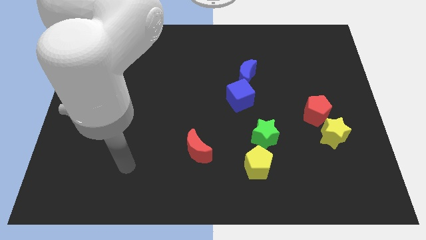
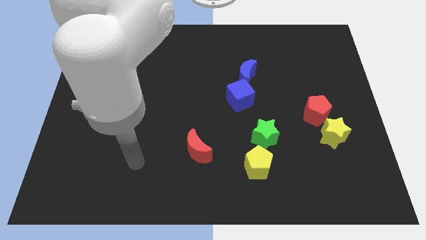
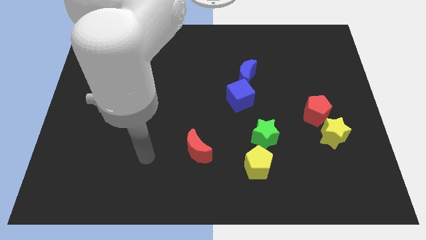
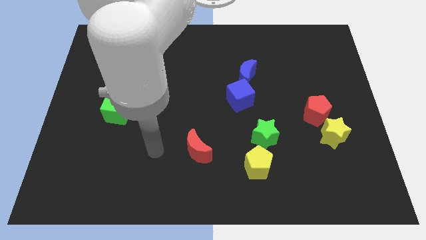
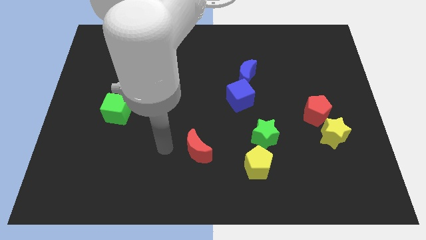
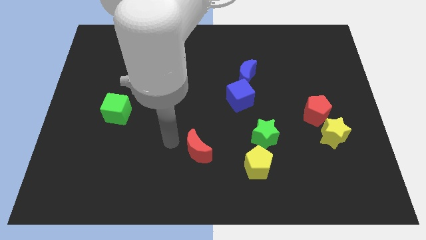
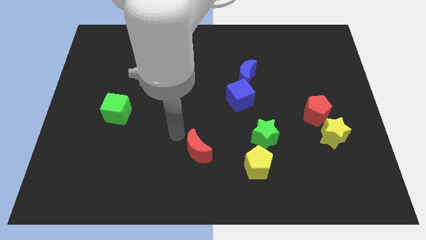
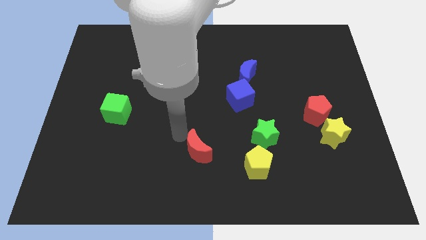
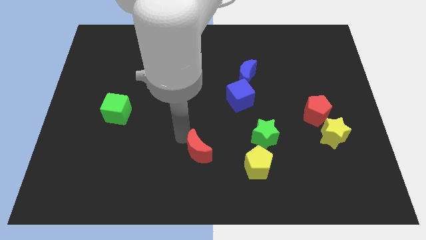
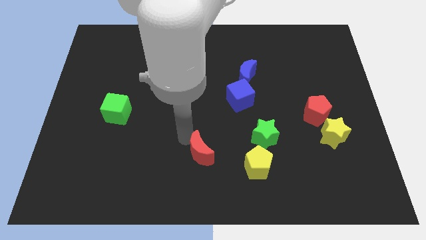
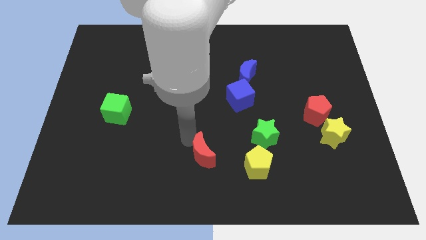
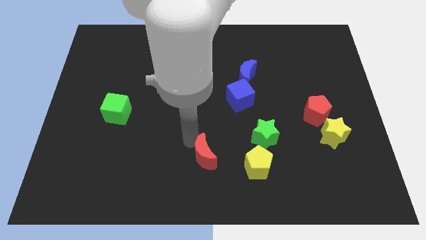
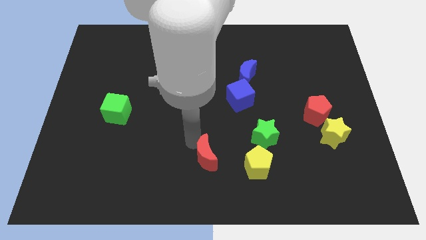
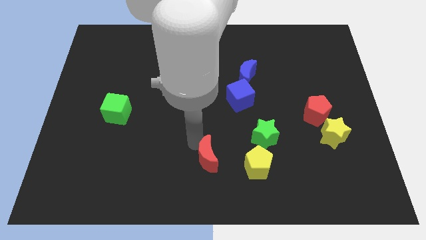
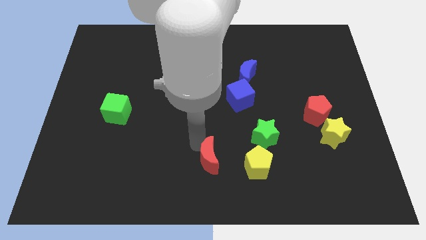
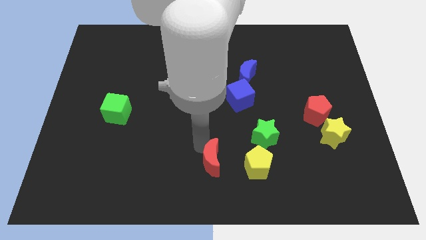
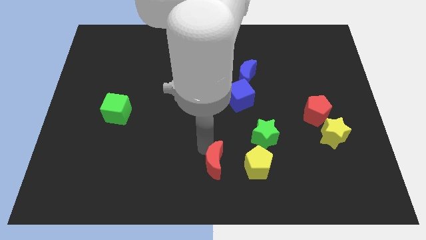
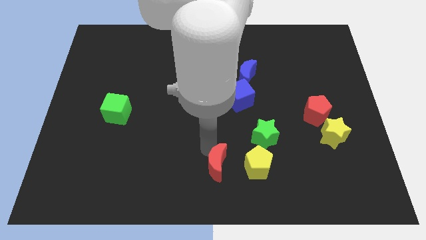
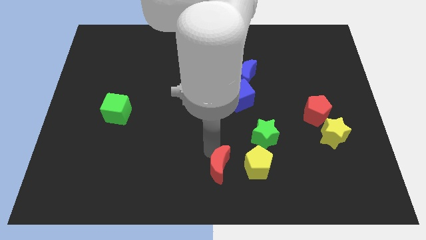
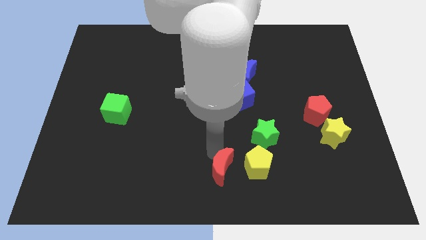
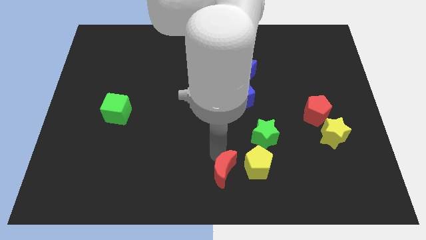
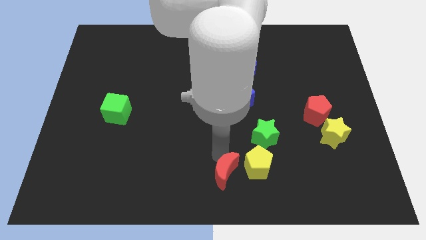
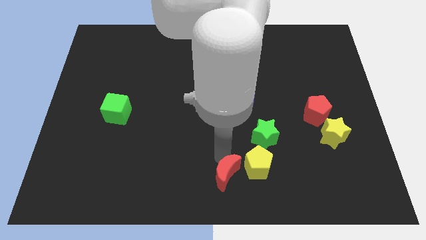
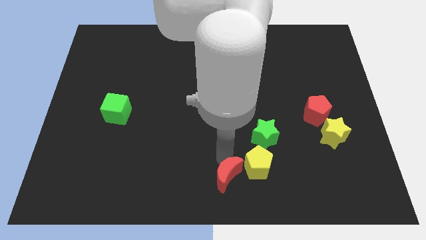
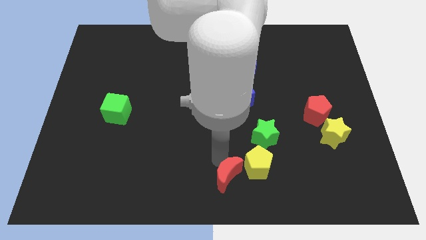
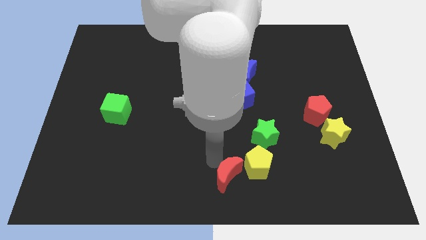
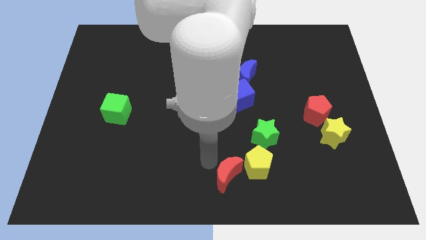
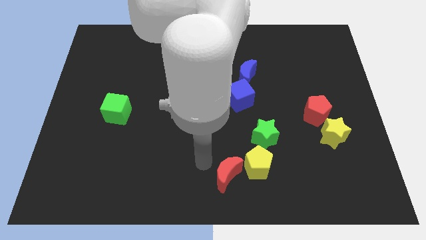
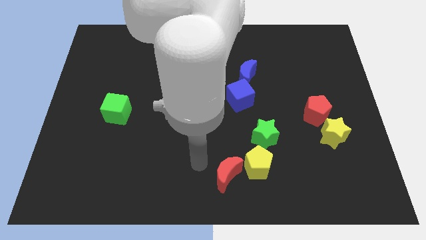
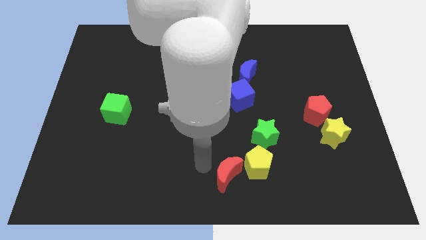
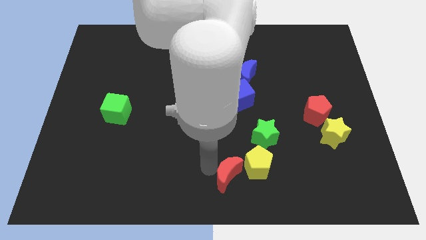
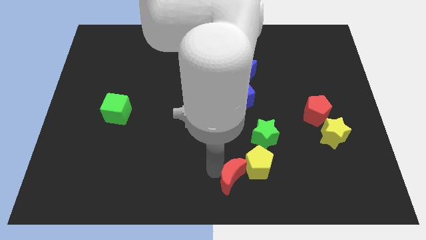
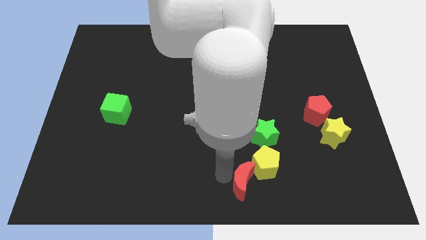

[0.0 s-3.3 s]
slightly move the red moon right

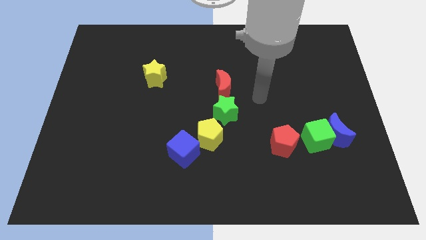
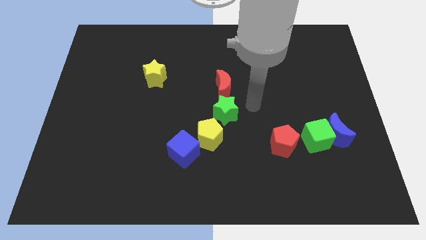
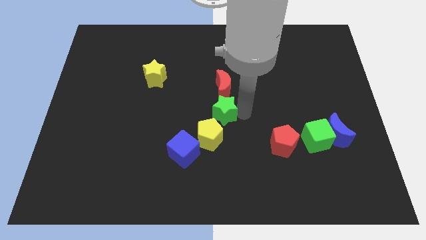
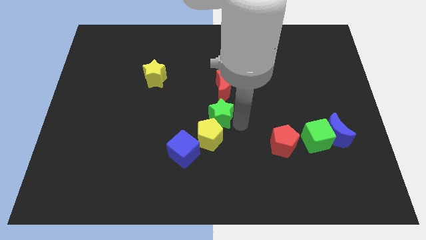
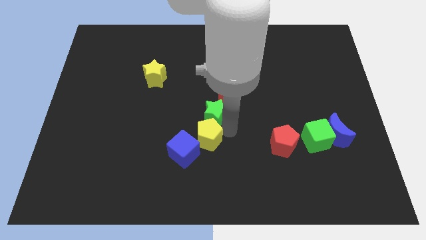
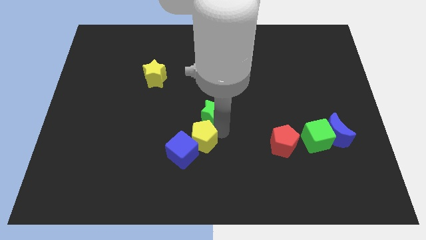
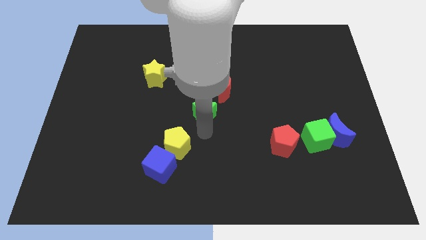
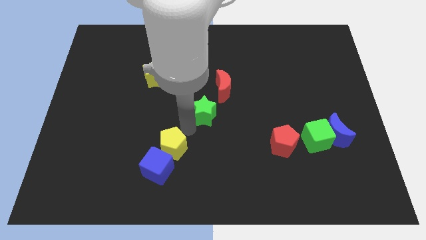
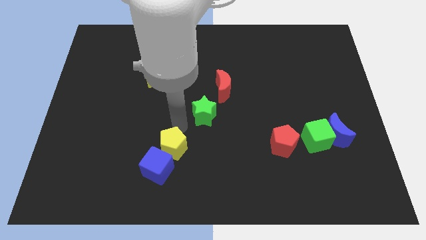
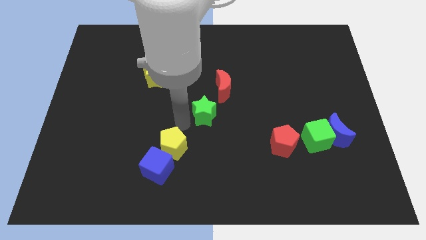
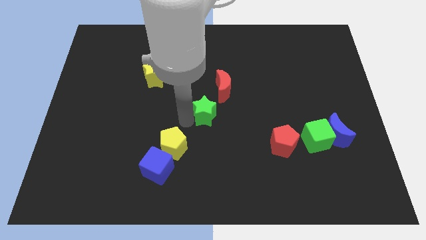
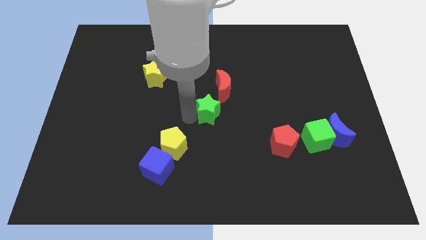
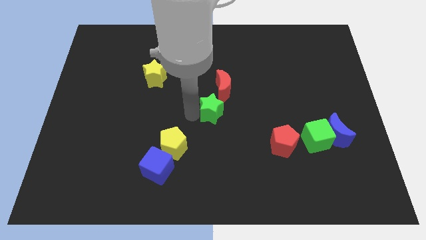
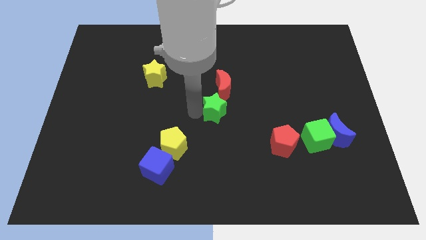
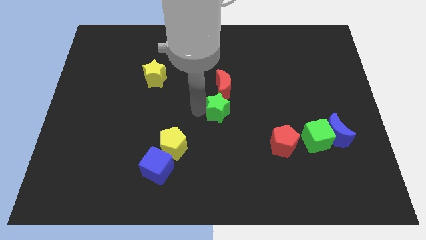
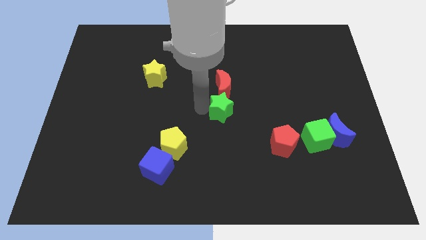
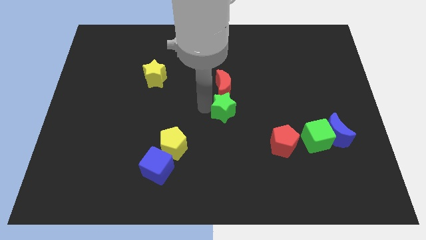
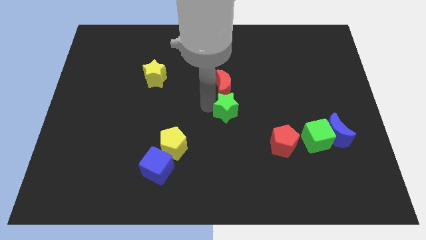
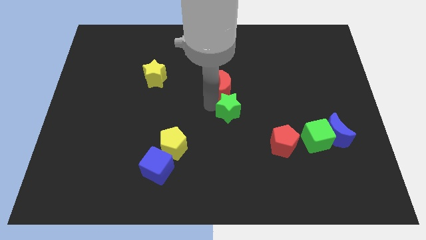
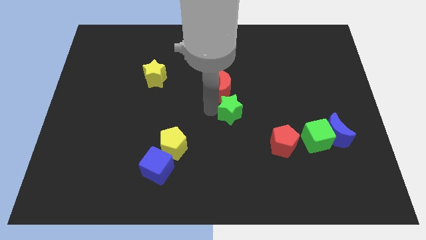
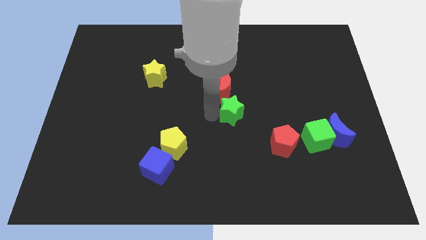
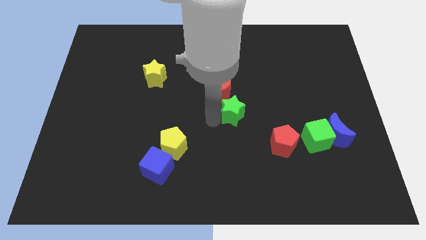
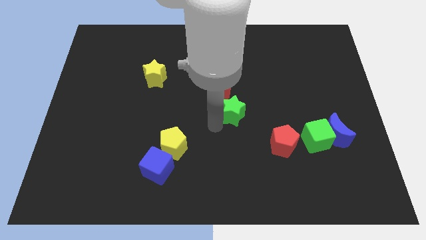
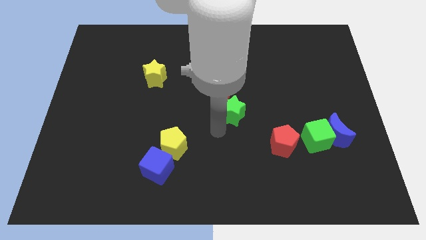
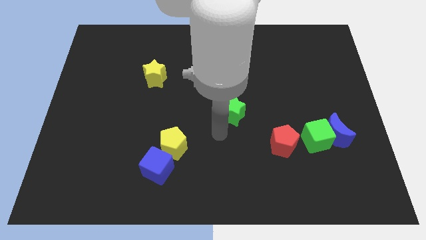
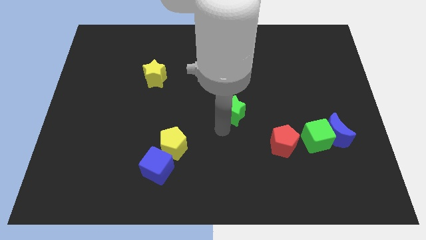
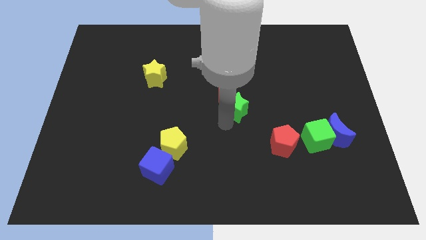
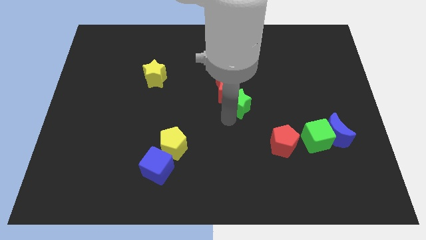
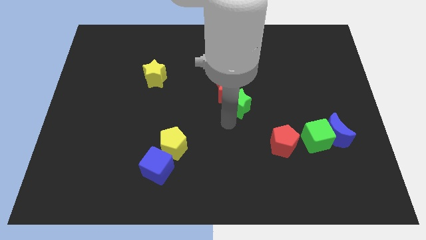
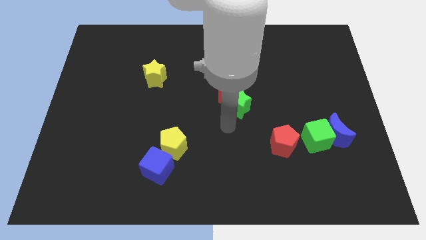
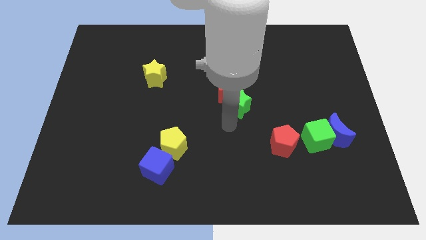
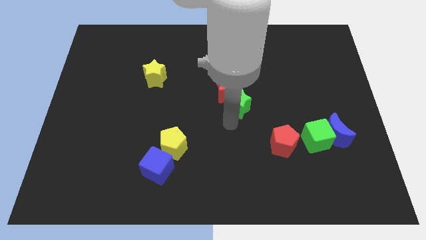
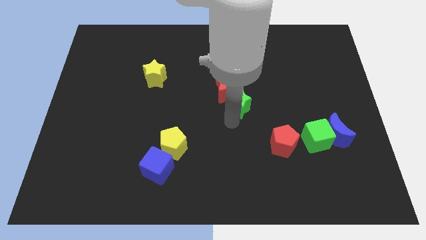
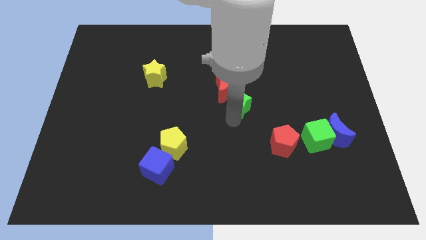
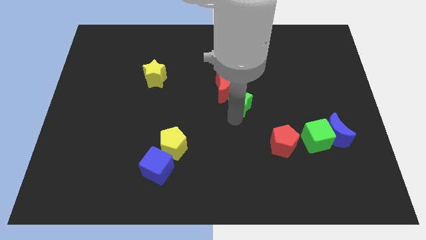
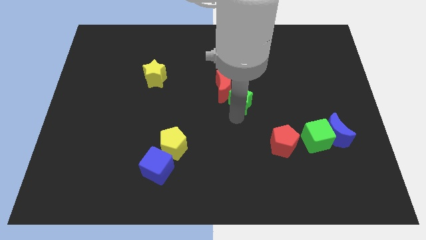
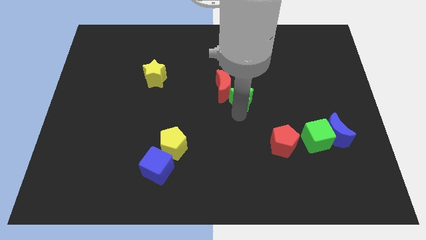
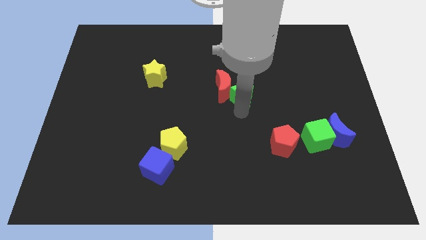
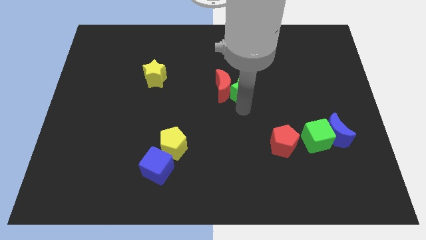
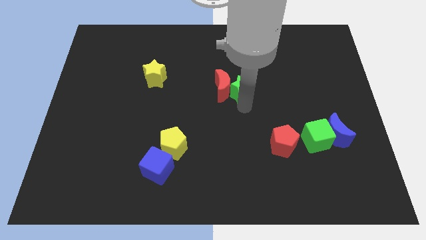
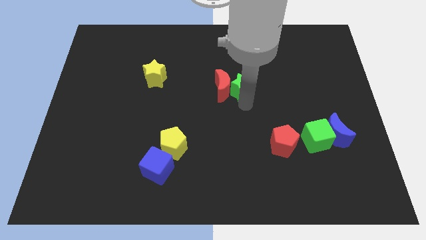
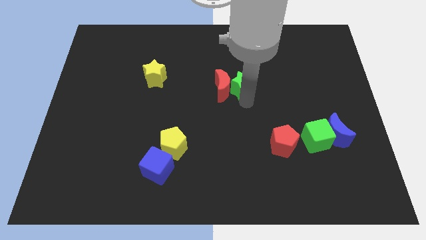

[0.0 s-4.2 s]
move the green star somewhat upwards

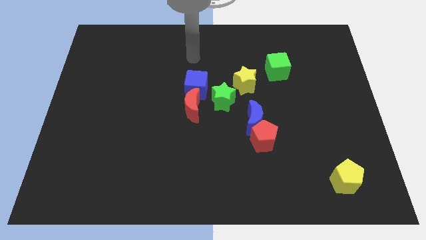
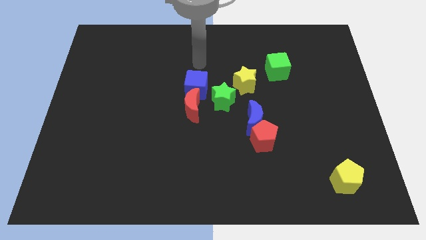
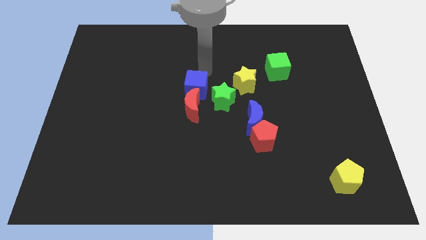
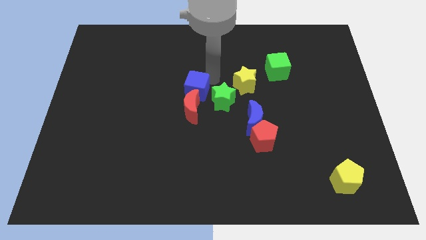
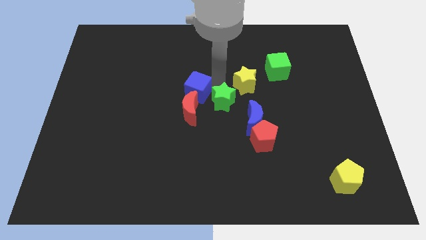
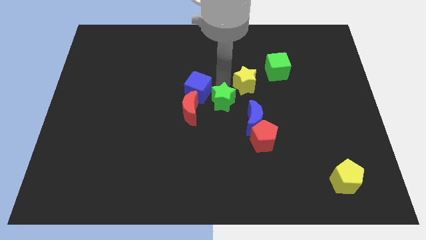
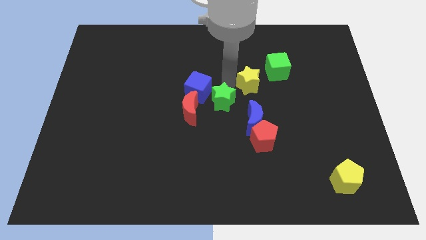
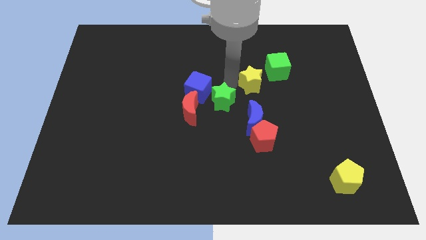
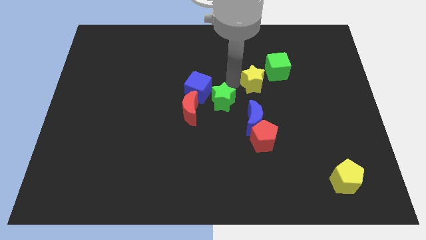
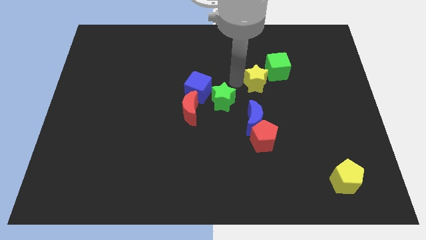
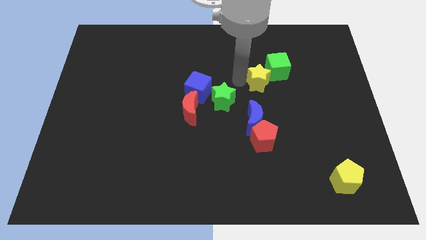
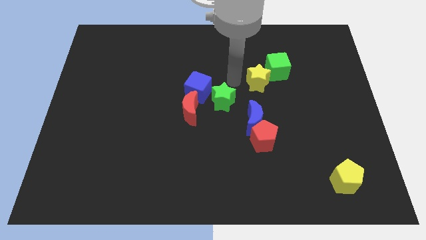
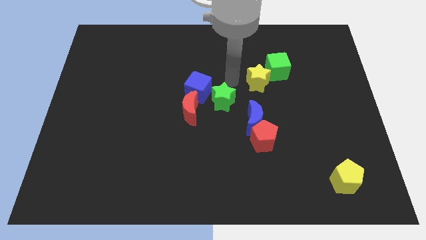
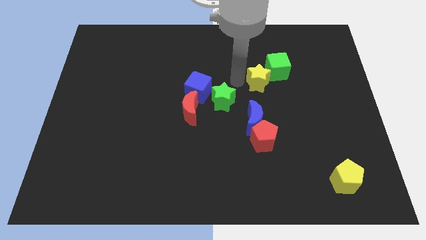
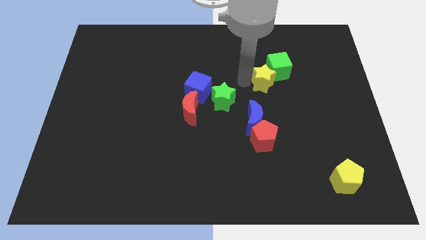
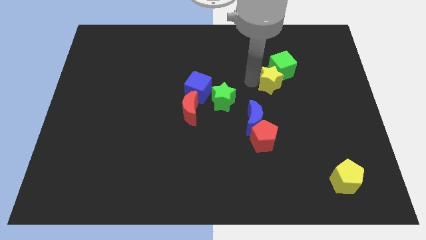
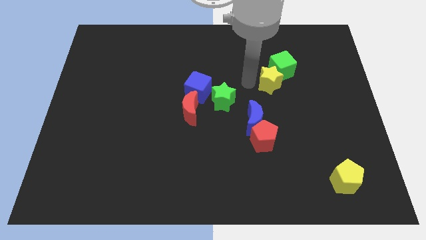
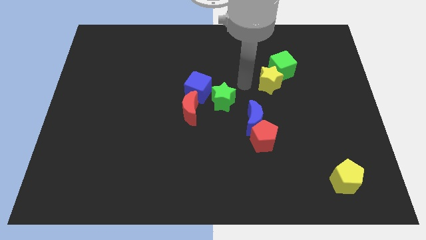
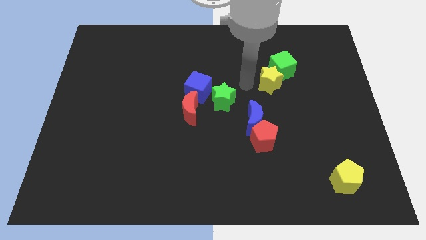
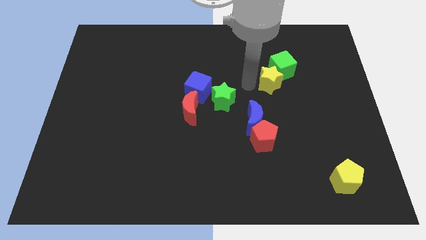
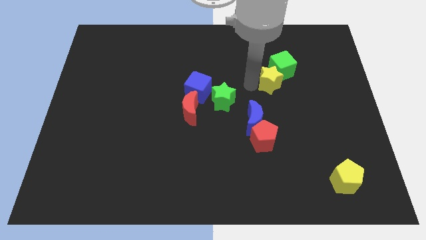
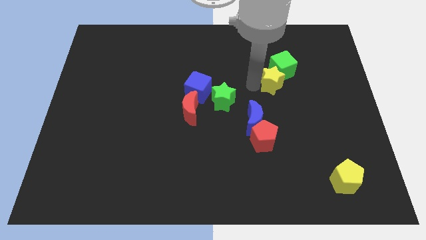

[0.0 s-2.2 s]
push the yellow star to the right slightly
